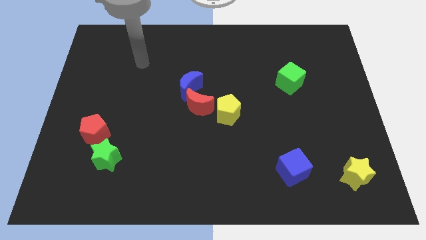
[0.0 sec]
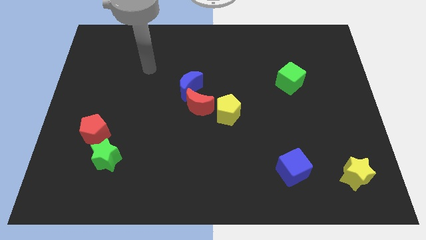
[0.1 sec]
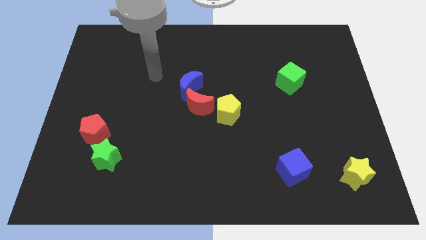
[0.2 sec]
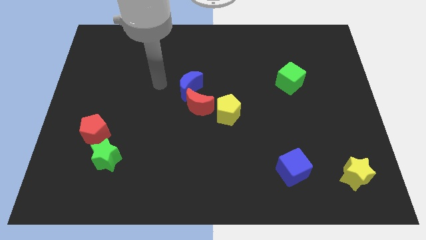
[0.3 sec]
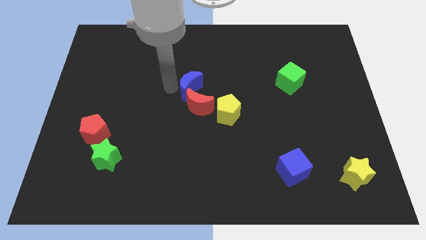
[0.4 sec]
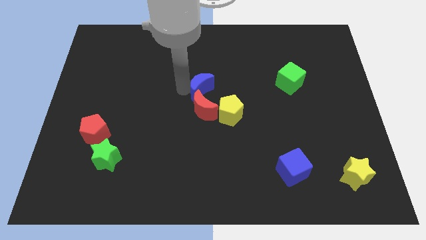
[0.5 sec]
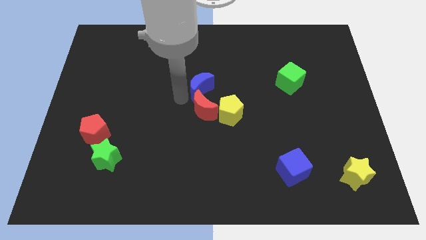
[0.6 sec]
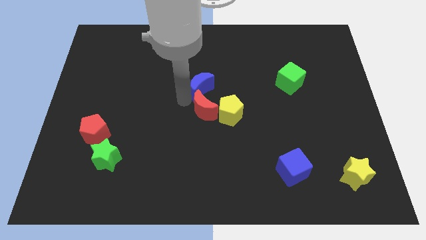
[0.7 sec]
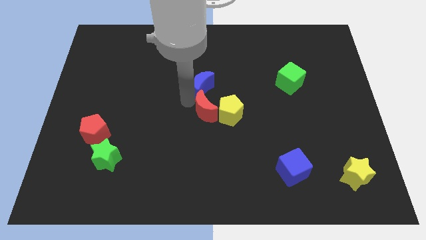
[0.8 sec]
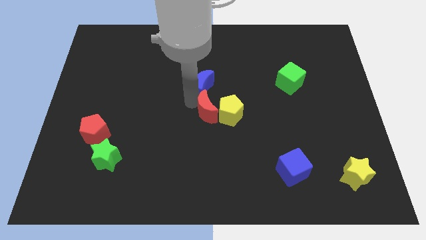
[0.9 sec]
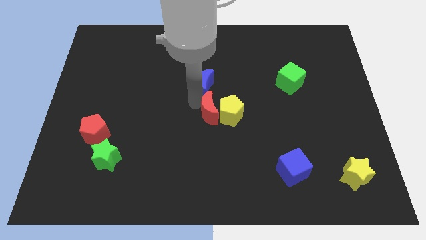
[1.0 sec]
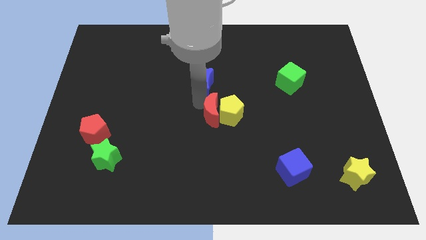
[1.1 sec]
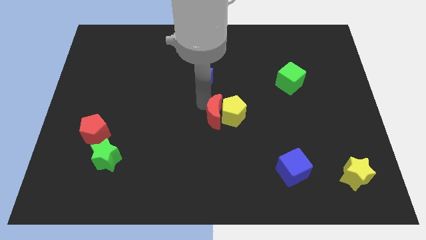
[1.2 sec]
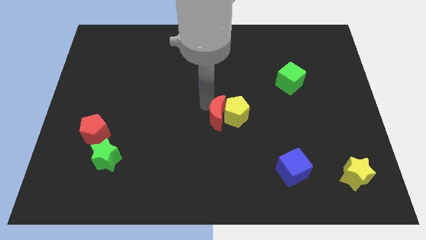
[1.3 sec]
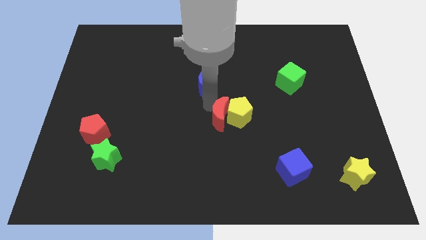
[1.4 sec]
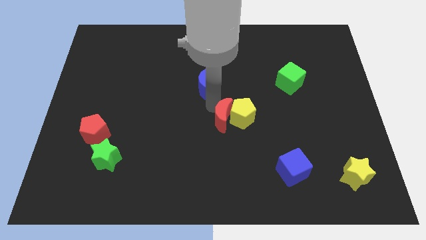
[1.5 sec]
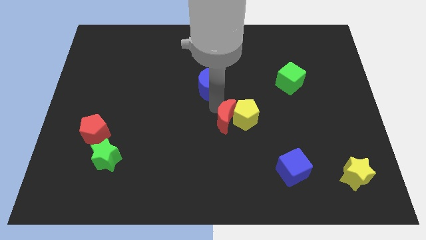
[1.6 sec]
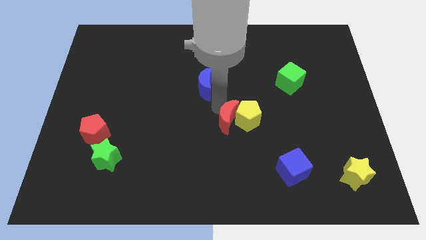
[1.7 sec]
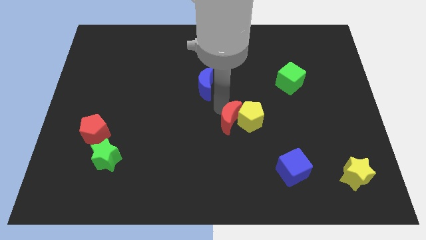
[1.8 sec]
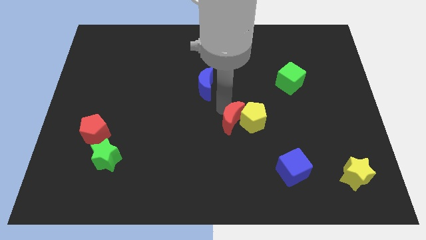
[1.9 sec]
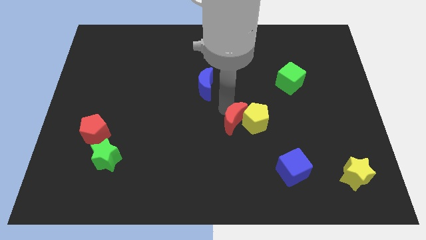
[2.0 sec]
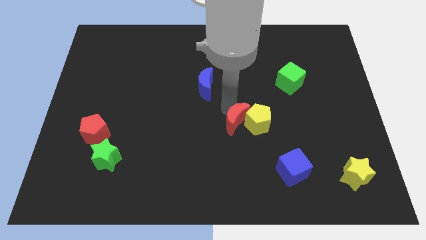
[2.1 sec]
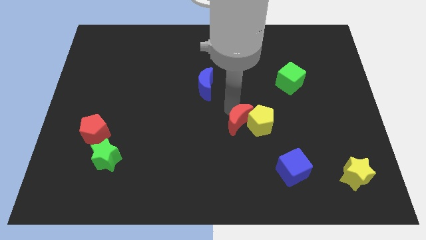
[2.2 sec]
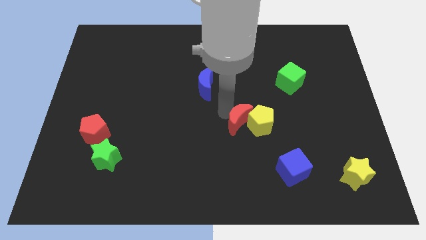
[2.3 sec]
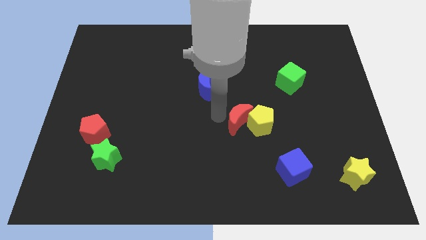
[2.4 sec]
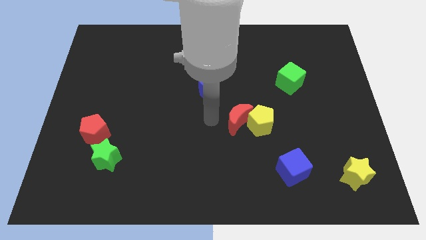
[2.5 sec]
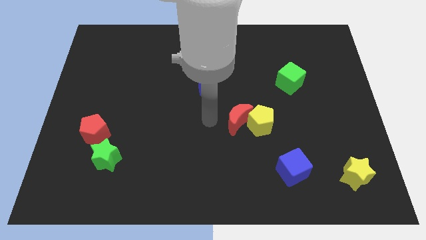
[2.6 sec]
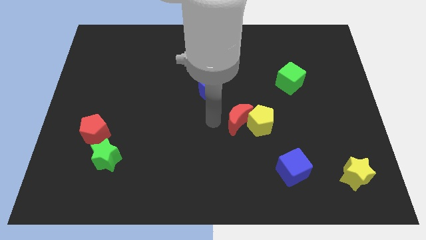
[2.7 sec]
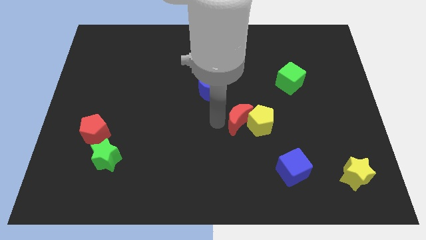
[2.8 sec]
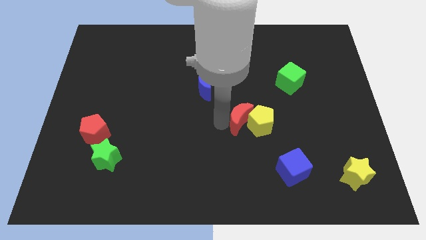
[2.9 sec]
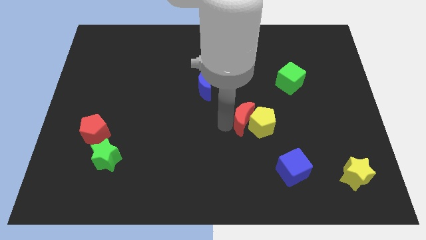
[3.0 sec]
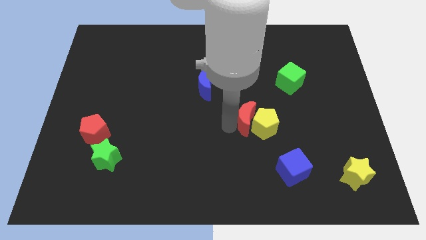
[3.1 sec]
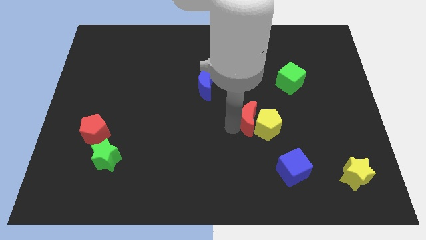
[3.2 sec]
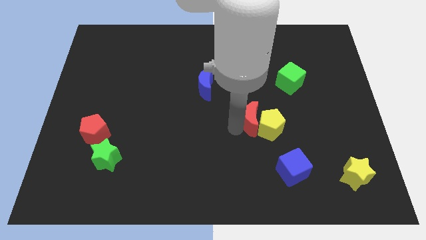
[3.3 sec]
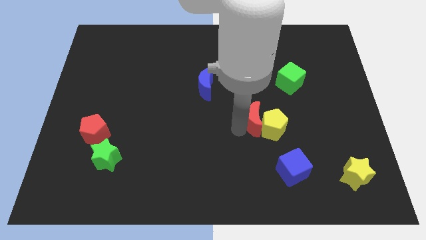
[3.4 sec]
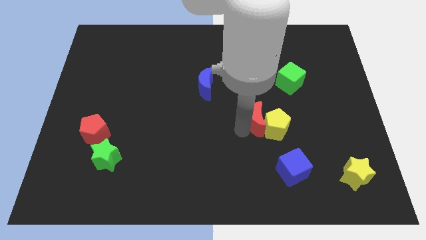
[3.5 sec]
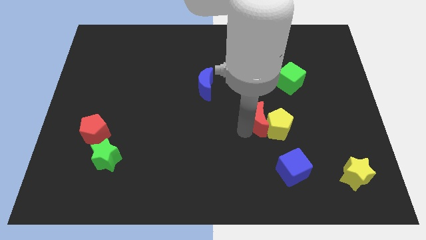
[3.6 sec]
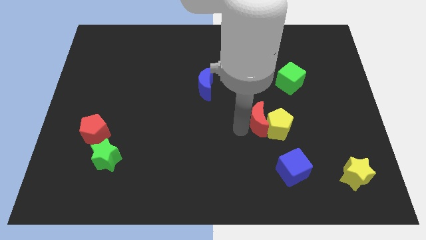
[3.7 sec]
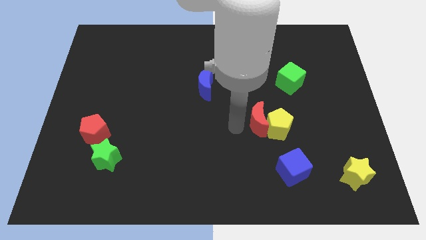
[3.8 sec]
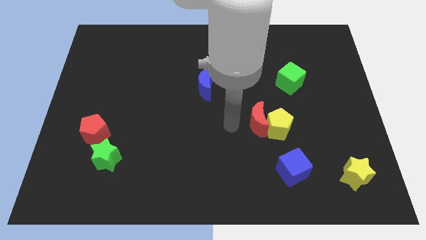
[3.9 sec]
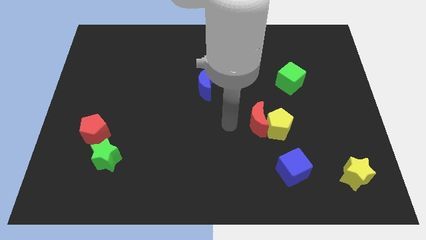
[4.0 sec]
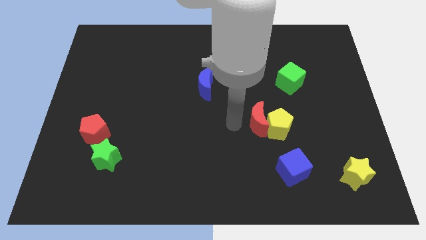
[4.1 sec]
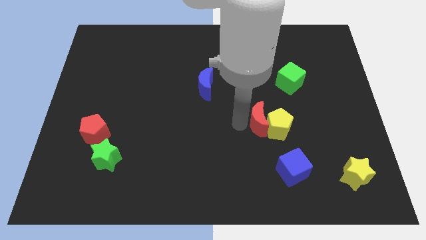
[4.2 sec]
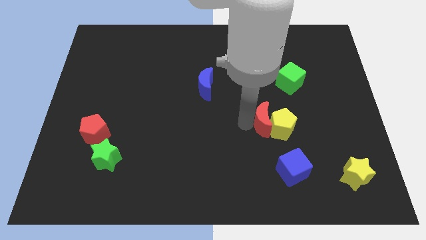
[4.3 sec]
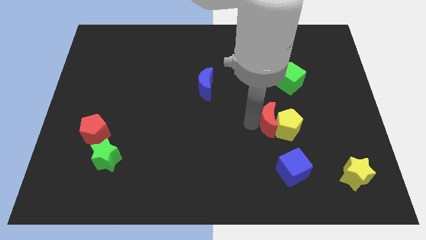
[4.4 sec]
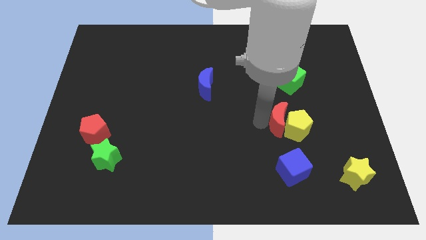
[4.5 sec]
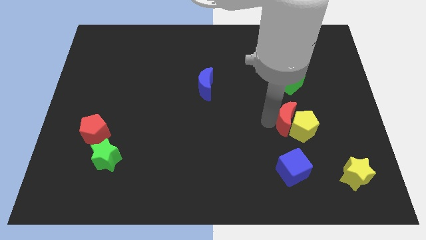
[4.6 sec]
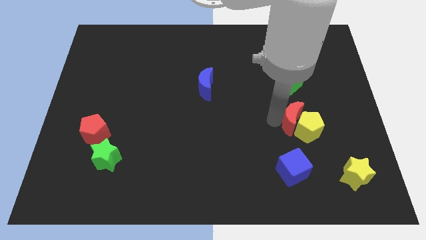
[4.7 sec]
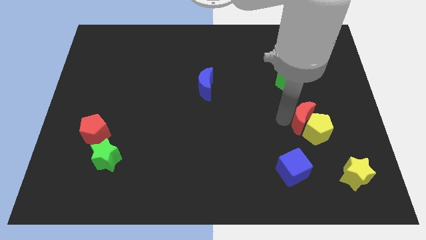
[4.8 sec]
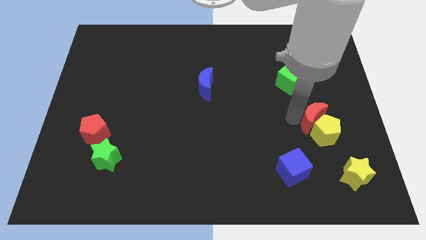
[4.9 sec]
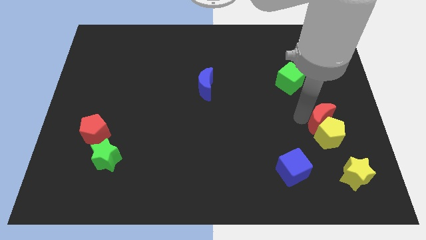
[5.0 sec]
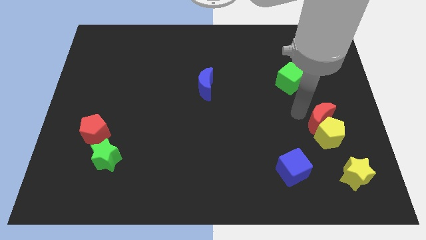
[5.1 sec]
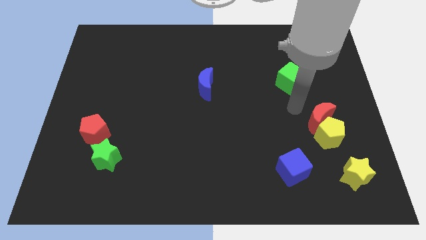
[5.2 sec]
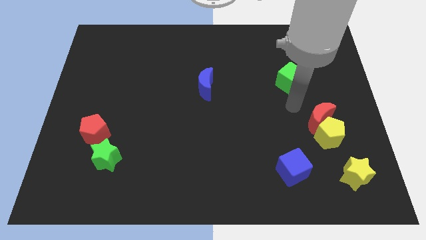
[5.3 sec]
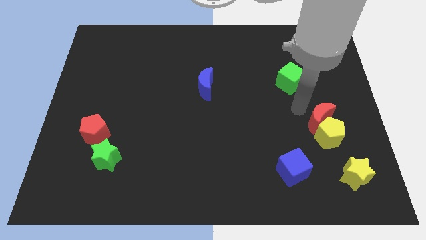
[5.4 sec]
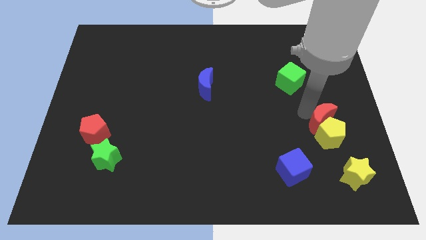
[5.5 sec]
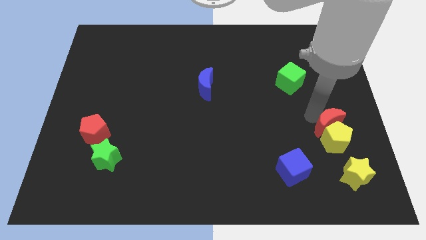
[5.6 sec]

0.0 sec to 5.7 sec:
move the red moon above the yellow star
